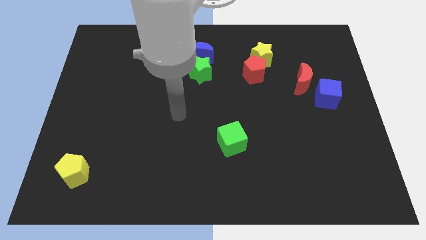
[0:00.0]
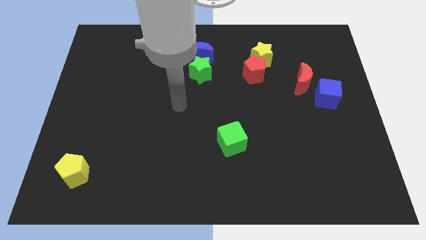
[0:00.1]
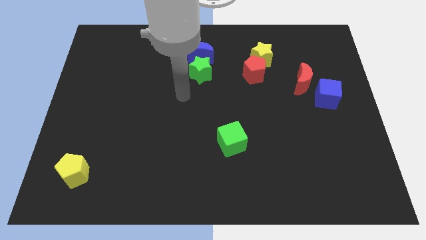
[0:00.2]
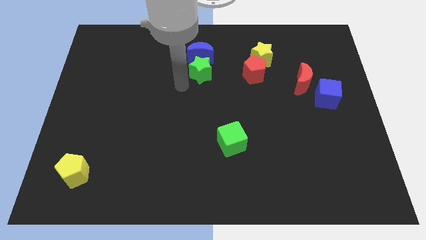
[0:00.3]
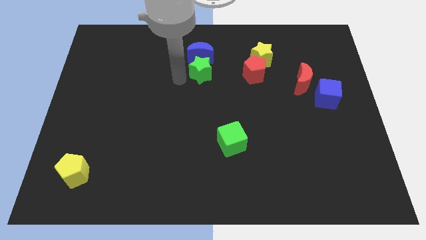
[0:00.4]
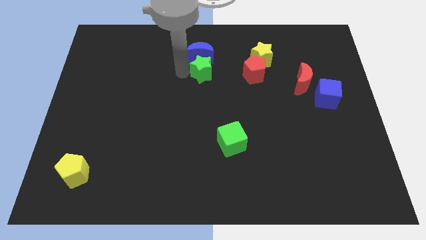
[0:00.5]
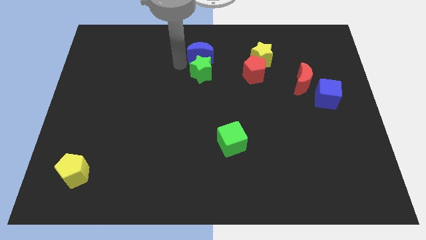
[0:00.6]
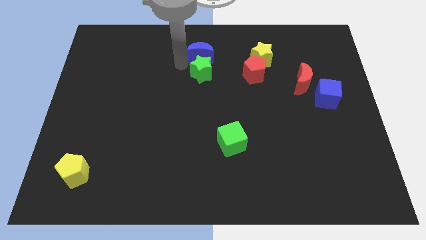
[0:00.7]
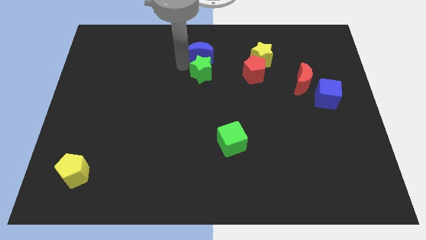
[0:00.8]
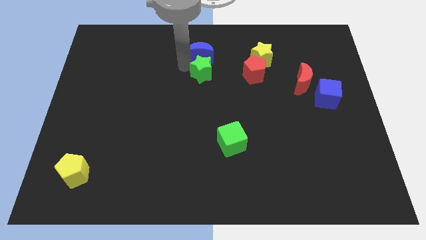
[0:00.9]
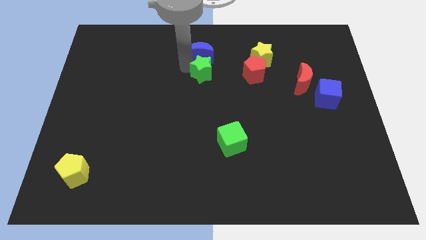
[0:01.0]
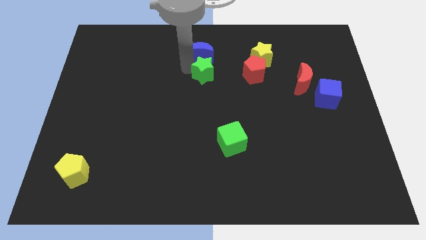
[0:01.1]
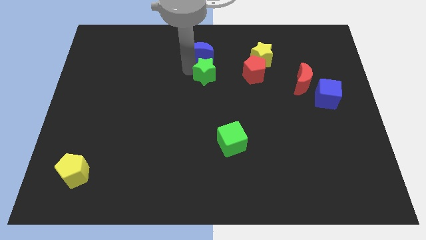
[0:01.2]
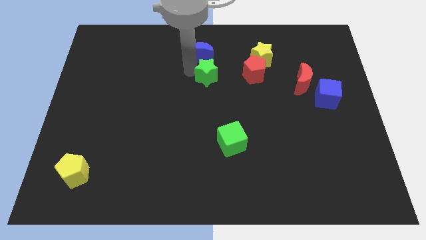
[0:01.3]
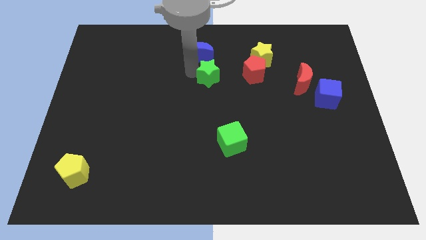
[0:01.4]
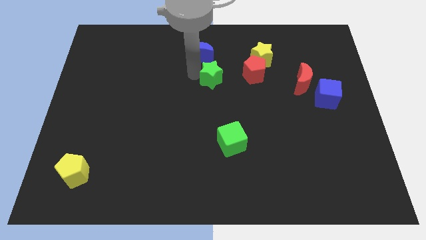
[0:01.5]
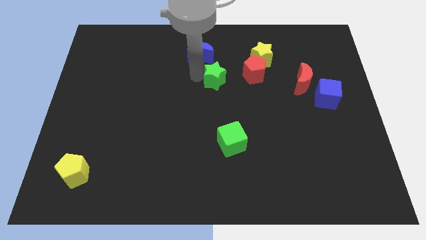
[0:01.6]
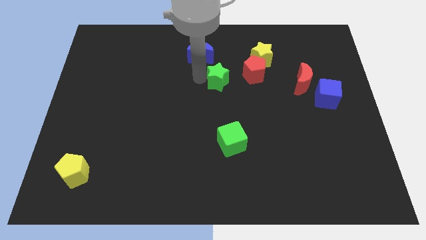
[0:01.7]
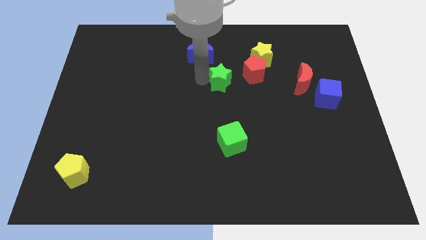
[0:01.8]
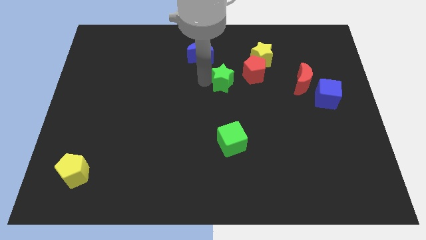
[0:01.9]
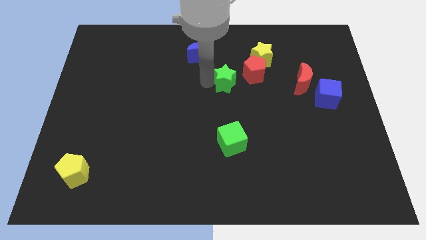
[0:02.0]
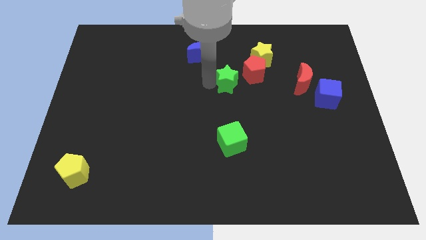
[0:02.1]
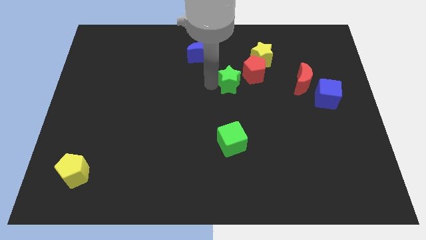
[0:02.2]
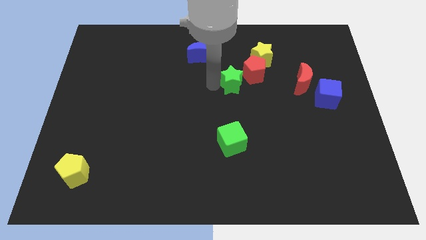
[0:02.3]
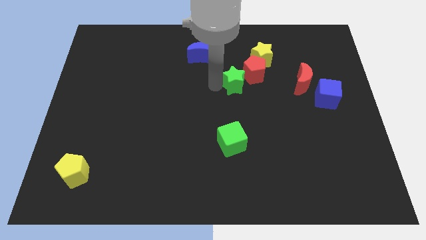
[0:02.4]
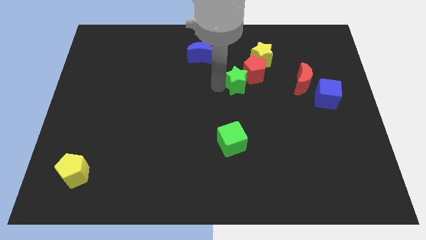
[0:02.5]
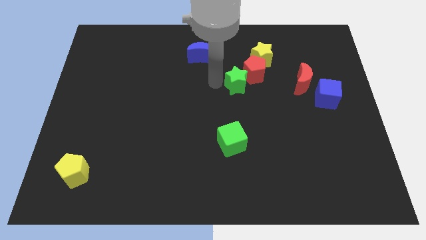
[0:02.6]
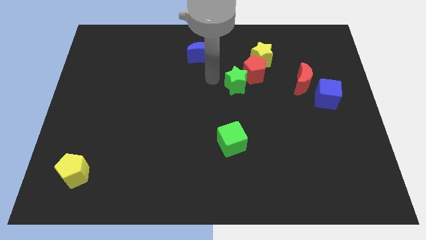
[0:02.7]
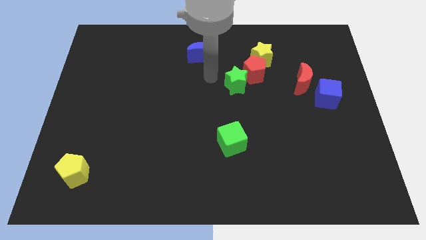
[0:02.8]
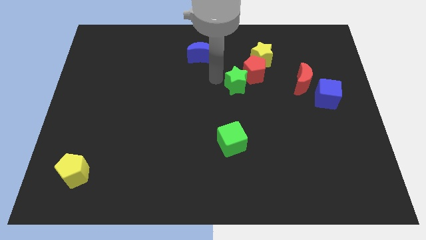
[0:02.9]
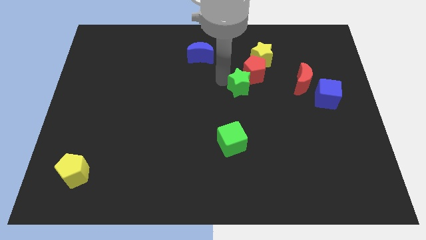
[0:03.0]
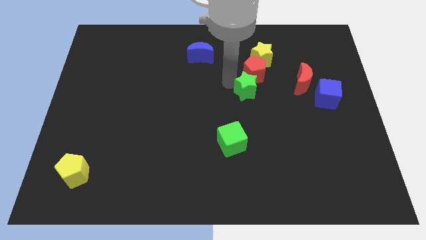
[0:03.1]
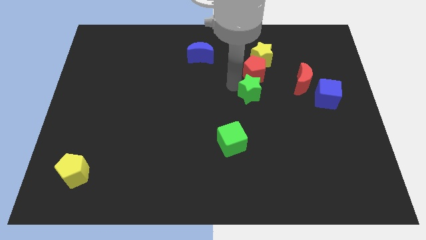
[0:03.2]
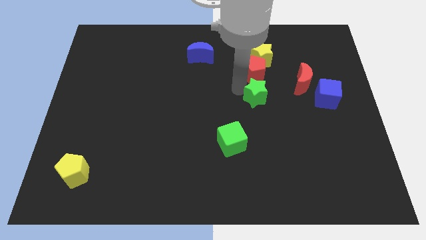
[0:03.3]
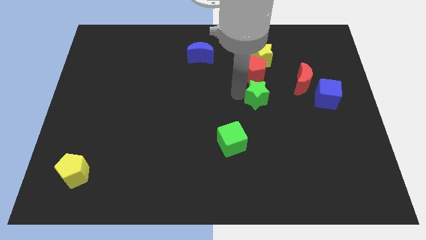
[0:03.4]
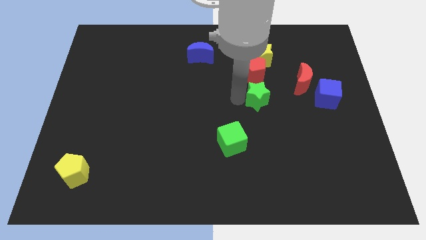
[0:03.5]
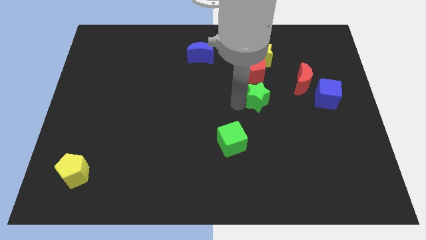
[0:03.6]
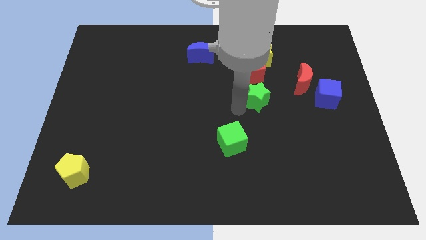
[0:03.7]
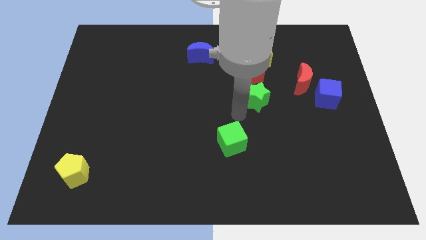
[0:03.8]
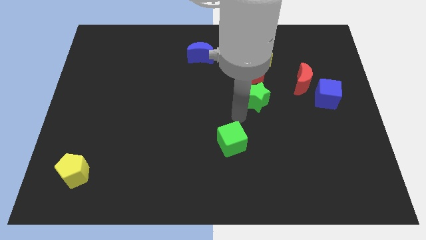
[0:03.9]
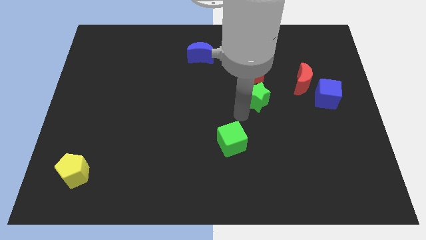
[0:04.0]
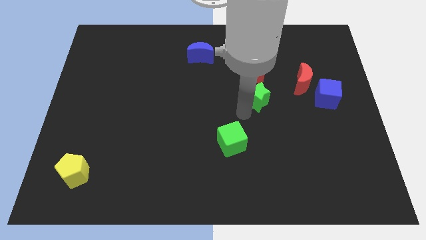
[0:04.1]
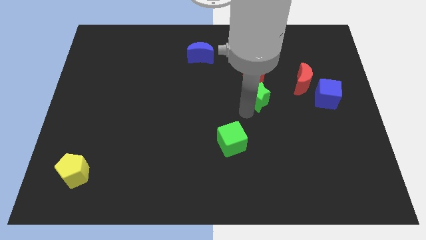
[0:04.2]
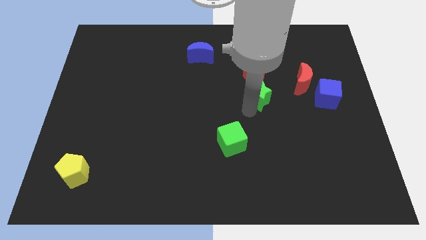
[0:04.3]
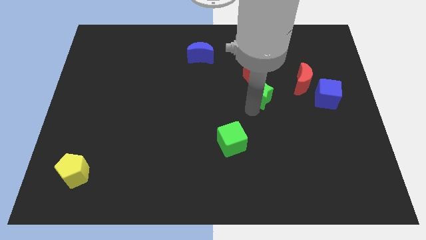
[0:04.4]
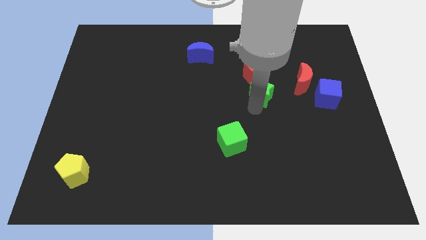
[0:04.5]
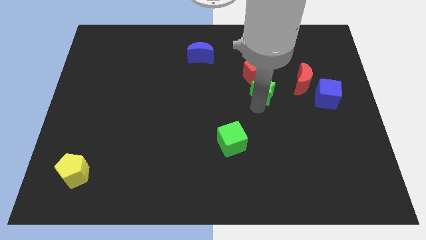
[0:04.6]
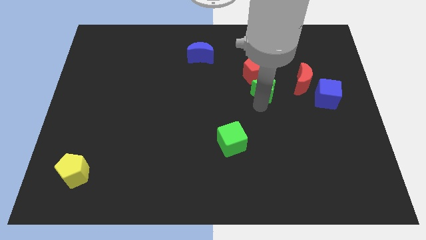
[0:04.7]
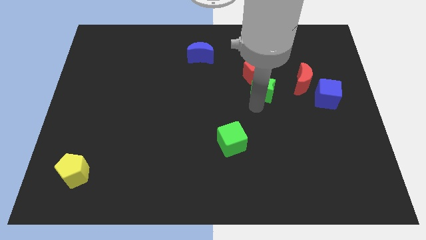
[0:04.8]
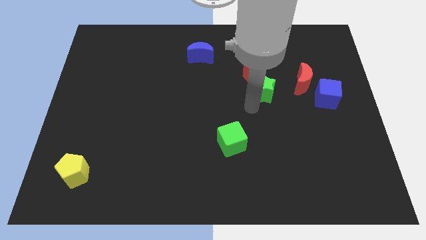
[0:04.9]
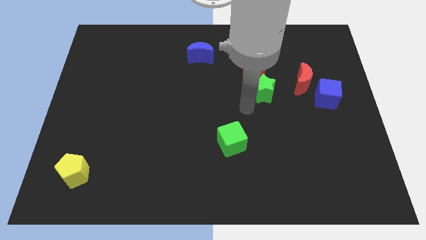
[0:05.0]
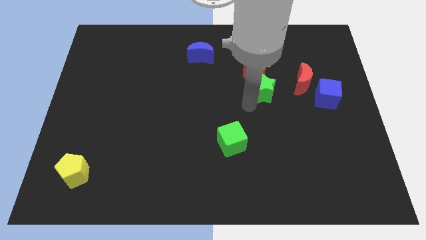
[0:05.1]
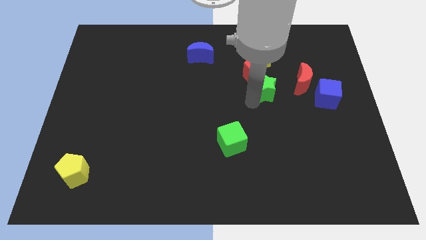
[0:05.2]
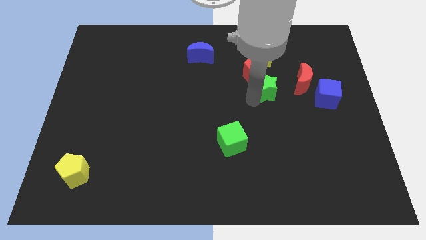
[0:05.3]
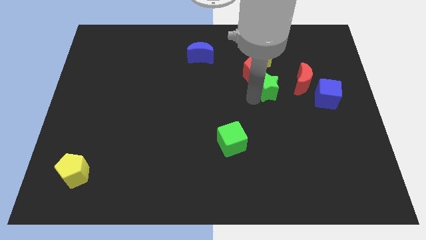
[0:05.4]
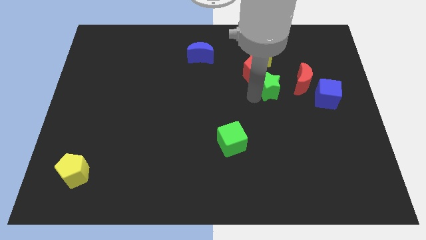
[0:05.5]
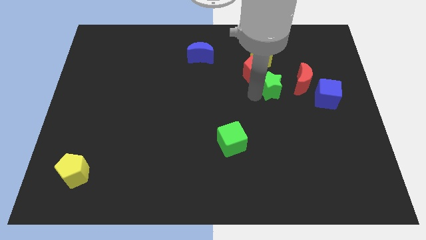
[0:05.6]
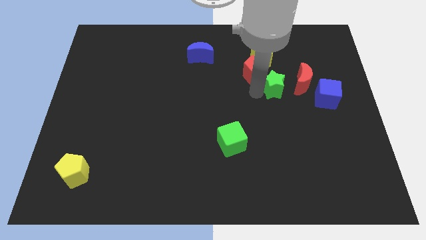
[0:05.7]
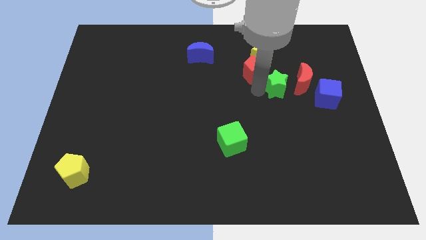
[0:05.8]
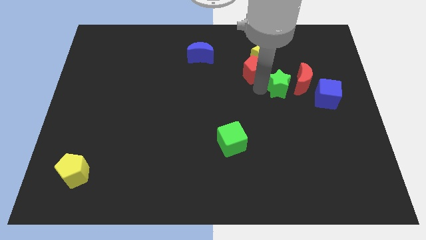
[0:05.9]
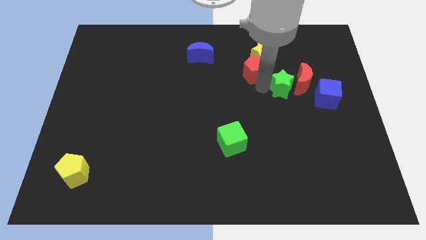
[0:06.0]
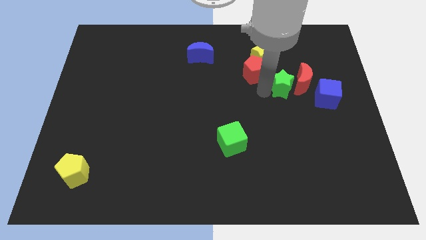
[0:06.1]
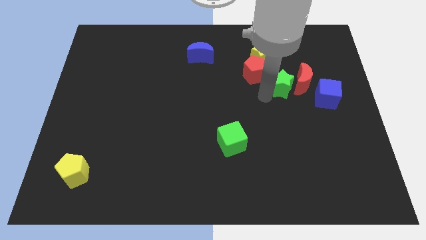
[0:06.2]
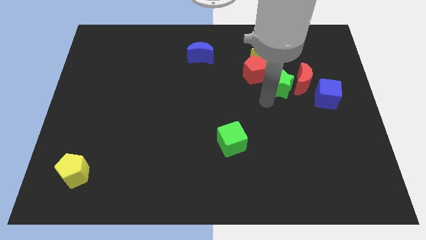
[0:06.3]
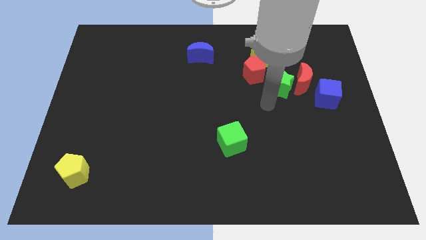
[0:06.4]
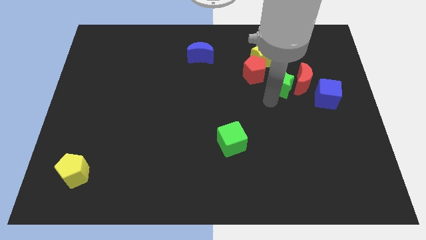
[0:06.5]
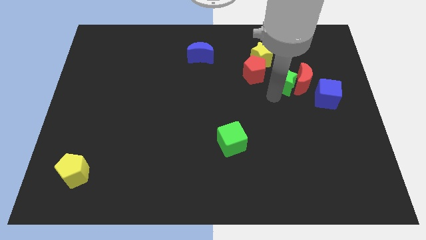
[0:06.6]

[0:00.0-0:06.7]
slide the green star to the top left side of the blue cube
